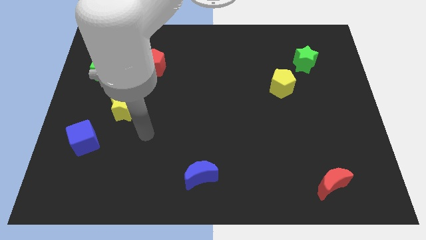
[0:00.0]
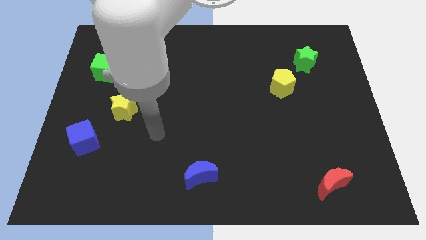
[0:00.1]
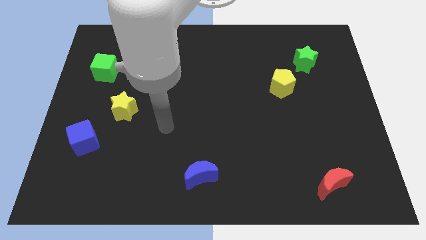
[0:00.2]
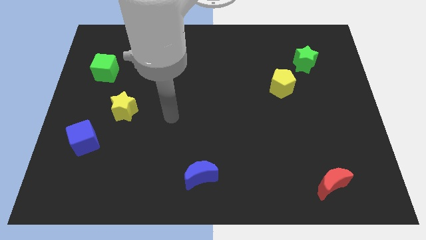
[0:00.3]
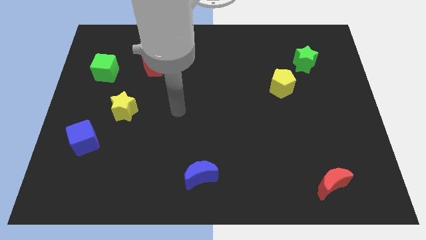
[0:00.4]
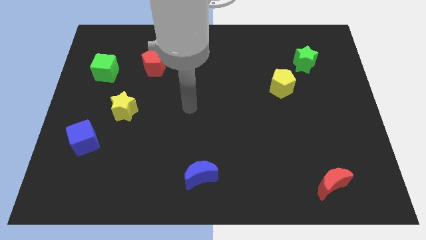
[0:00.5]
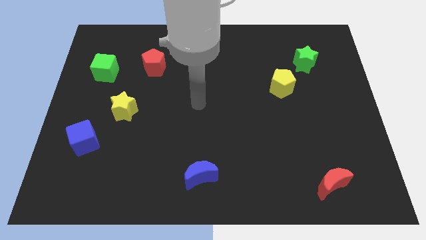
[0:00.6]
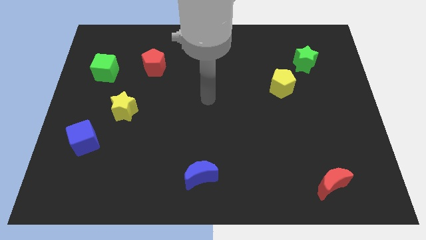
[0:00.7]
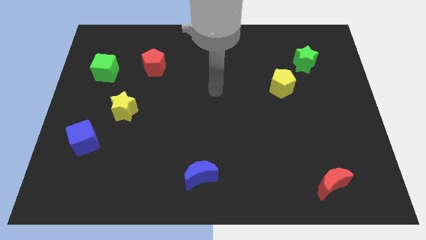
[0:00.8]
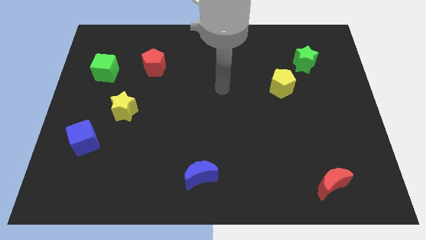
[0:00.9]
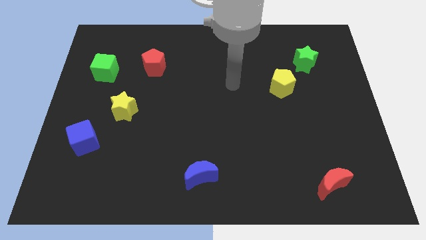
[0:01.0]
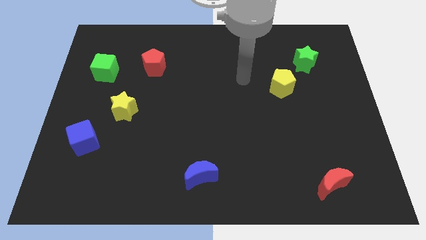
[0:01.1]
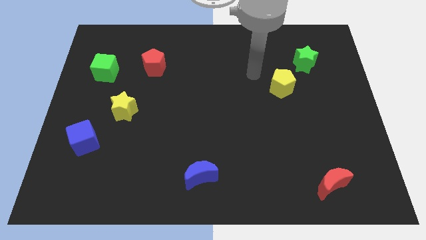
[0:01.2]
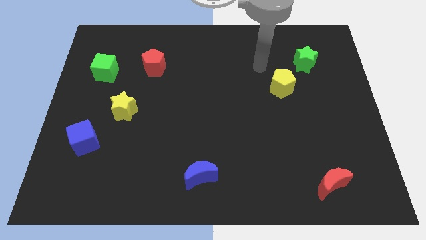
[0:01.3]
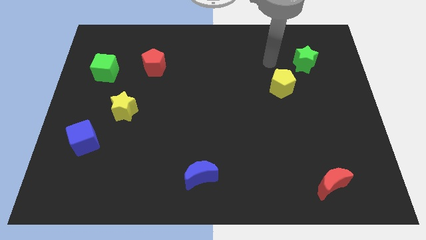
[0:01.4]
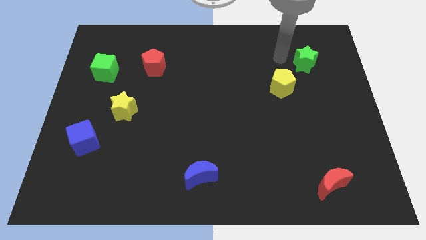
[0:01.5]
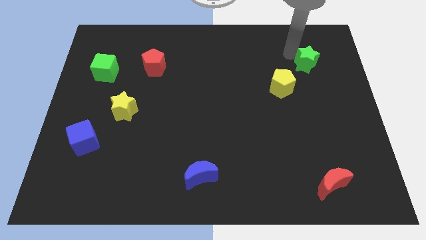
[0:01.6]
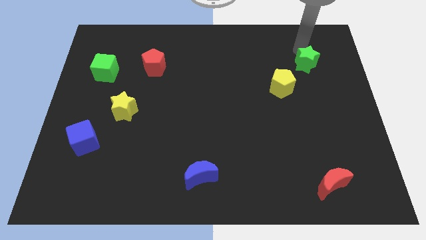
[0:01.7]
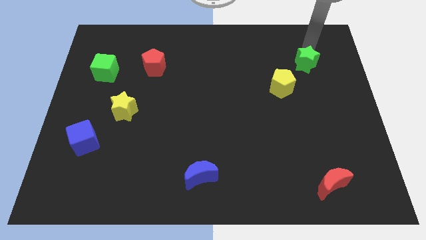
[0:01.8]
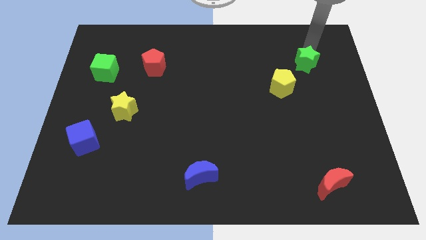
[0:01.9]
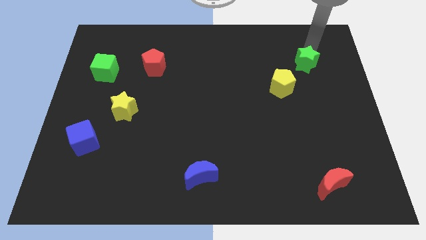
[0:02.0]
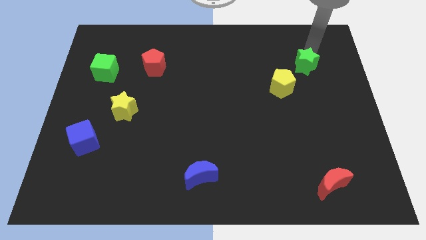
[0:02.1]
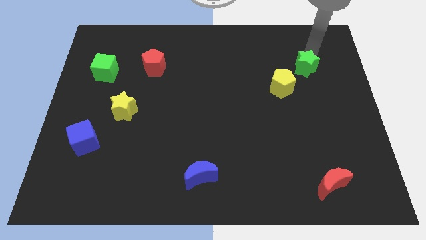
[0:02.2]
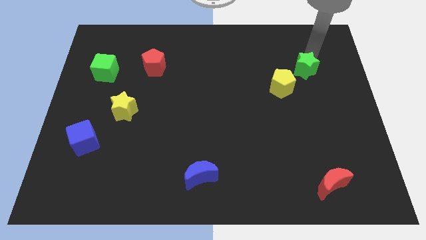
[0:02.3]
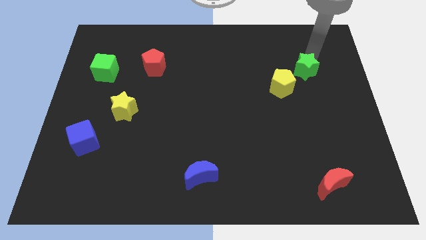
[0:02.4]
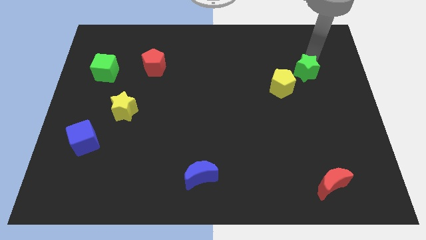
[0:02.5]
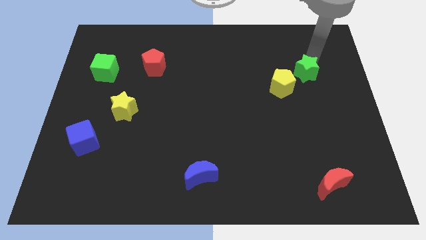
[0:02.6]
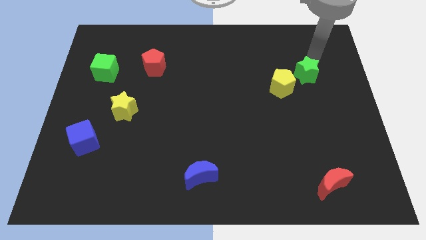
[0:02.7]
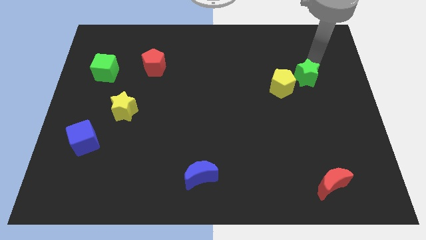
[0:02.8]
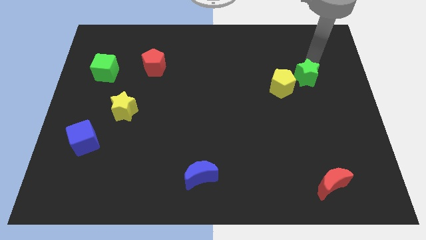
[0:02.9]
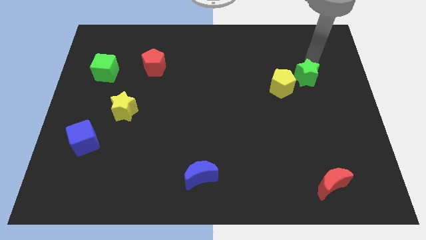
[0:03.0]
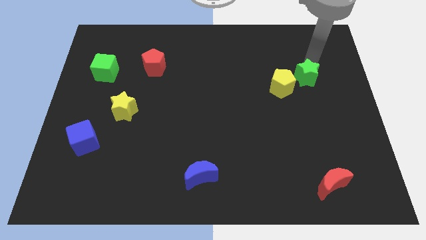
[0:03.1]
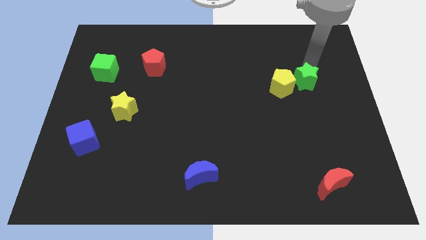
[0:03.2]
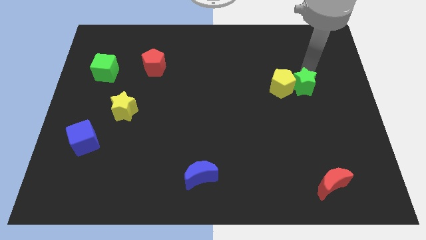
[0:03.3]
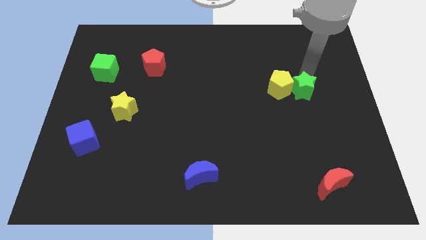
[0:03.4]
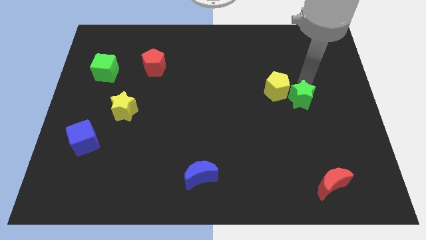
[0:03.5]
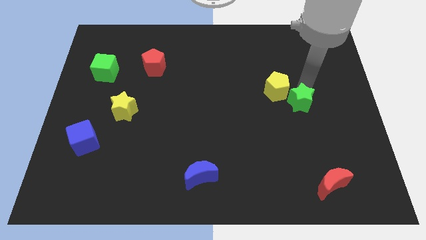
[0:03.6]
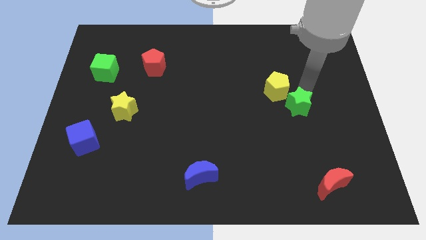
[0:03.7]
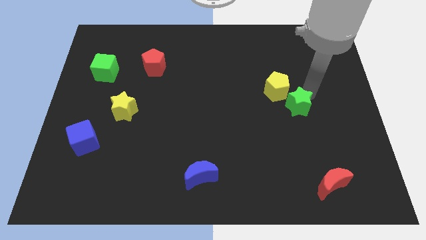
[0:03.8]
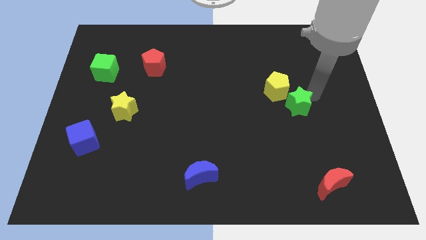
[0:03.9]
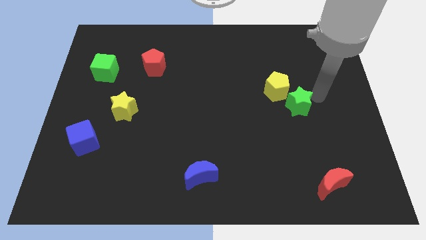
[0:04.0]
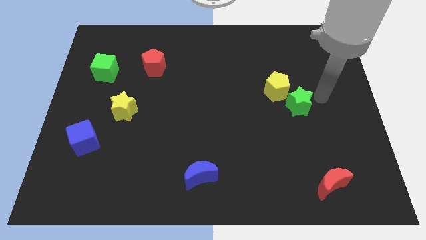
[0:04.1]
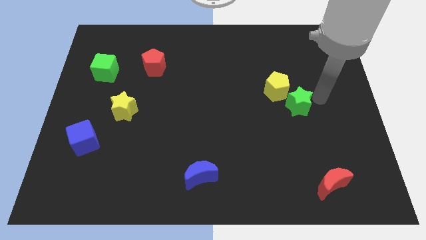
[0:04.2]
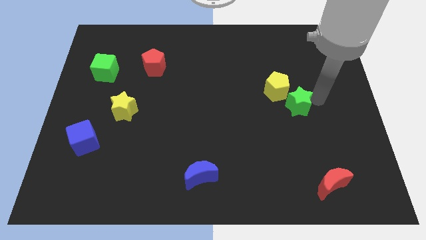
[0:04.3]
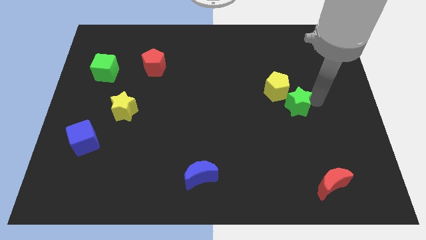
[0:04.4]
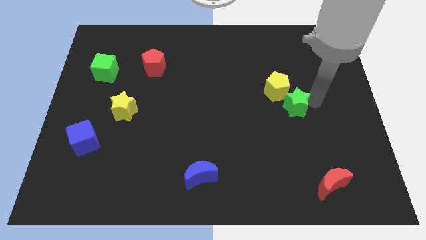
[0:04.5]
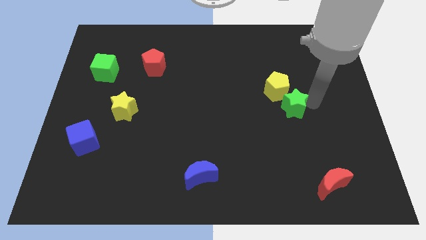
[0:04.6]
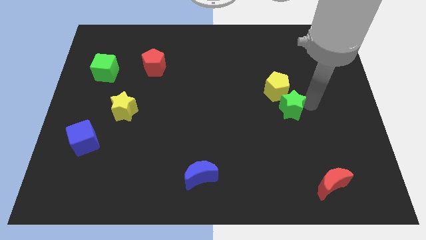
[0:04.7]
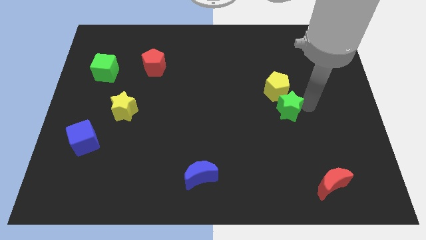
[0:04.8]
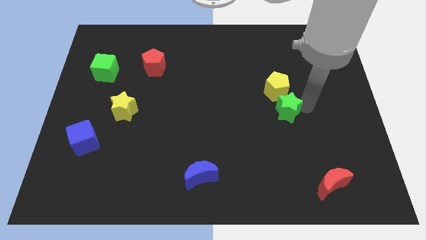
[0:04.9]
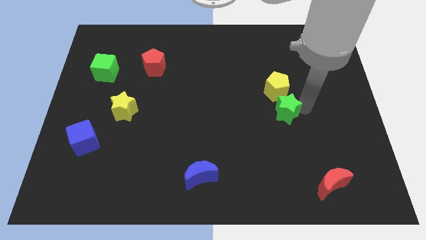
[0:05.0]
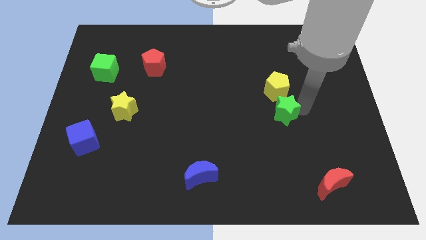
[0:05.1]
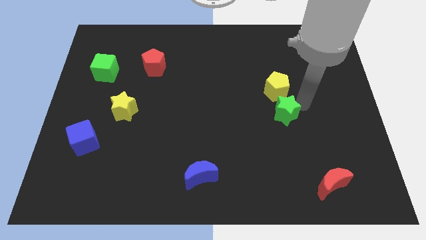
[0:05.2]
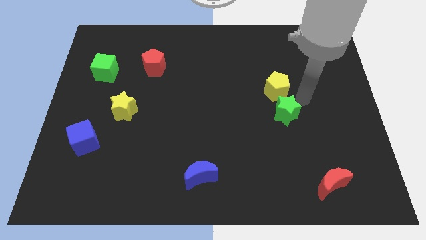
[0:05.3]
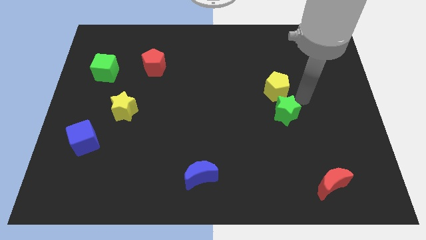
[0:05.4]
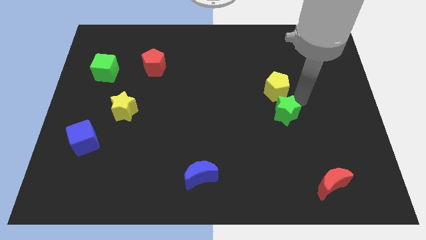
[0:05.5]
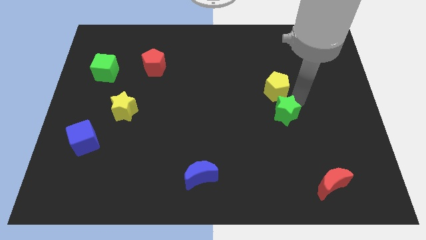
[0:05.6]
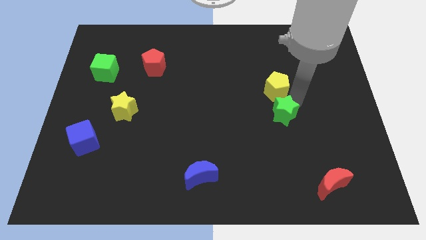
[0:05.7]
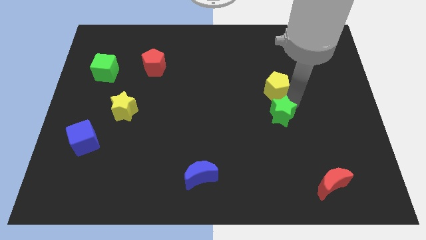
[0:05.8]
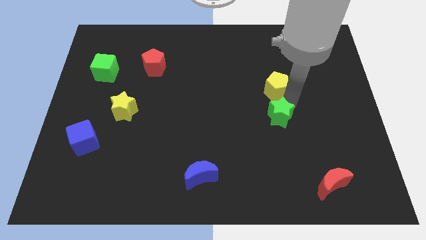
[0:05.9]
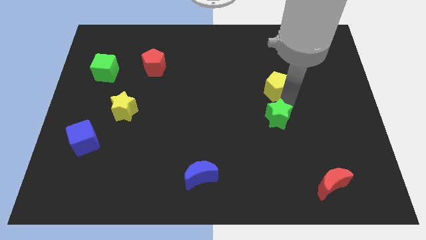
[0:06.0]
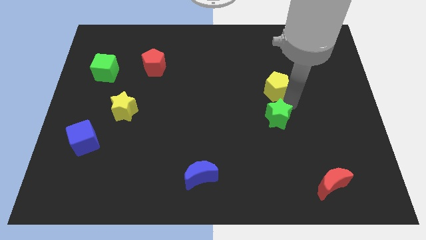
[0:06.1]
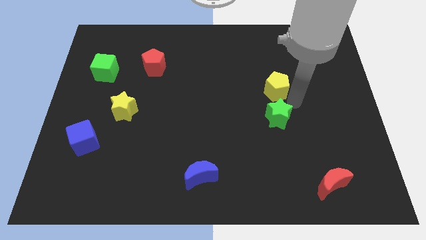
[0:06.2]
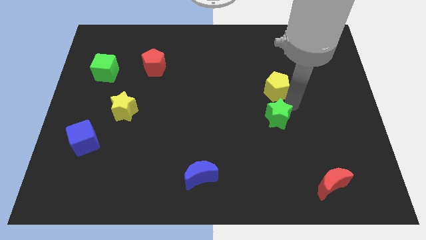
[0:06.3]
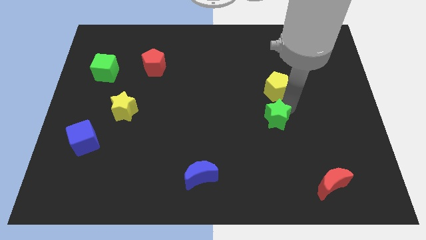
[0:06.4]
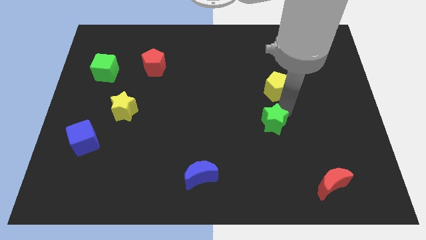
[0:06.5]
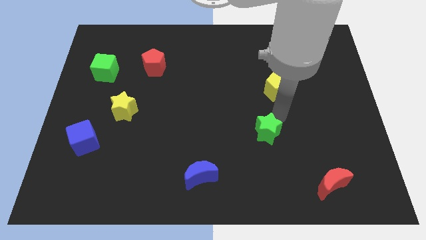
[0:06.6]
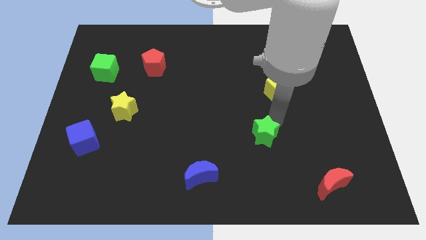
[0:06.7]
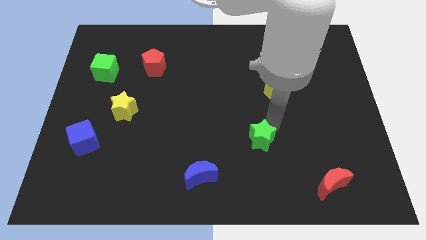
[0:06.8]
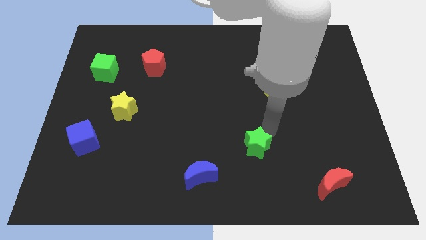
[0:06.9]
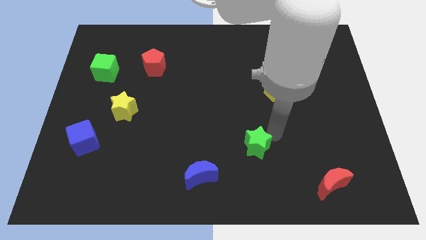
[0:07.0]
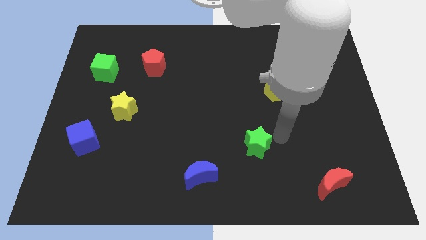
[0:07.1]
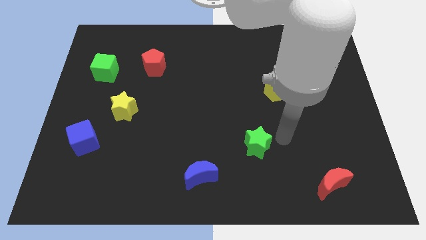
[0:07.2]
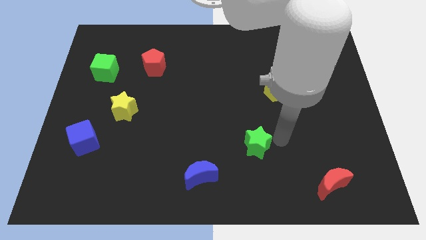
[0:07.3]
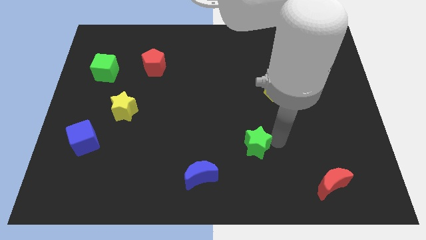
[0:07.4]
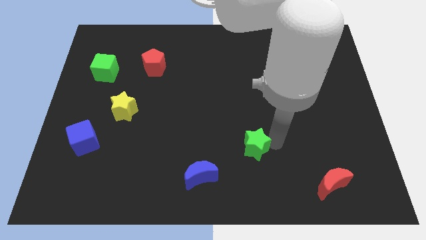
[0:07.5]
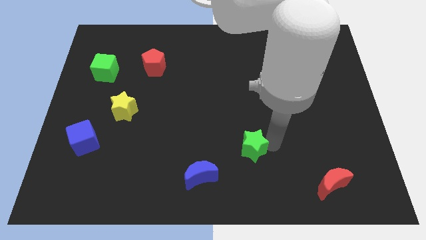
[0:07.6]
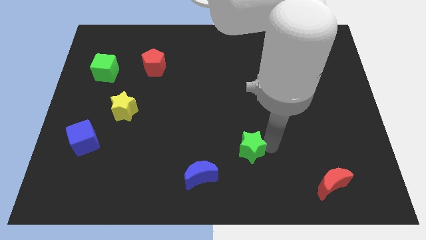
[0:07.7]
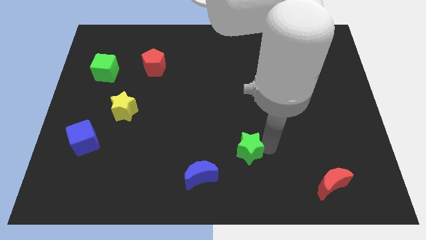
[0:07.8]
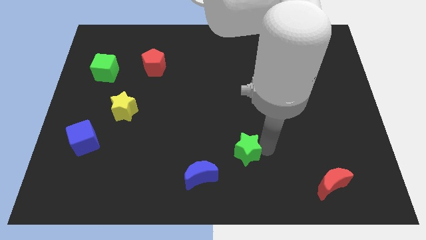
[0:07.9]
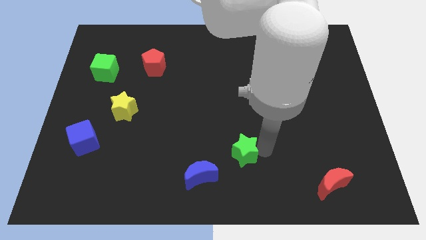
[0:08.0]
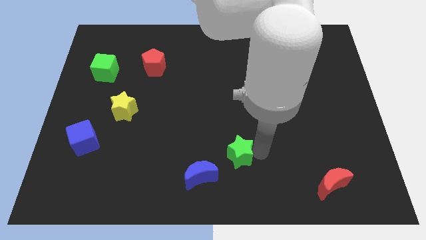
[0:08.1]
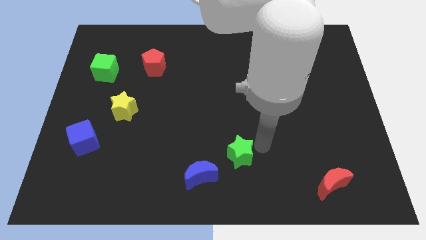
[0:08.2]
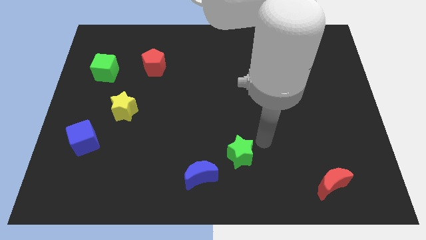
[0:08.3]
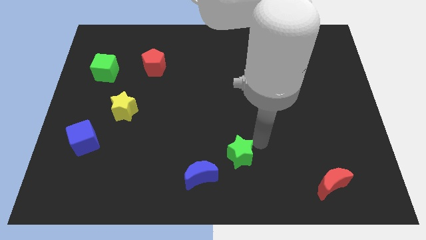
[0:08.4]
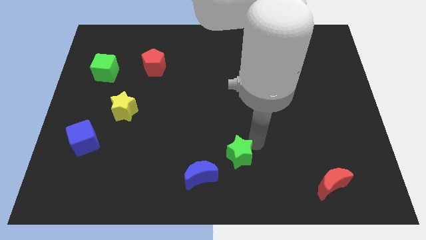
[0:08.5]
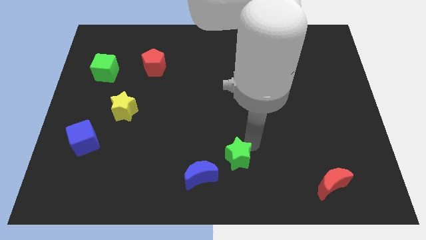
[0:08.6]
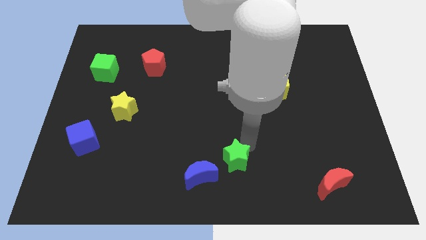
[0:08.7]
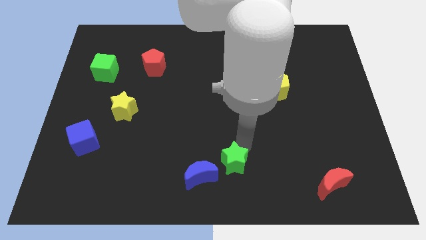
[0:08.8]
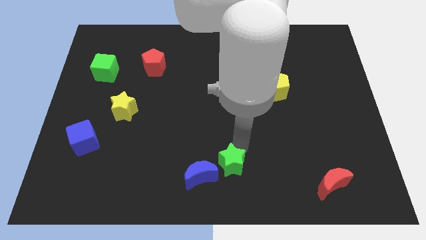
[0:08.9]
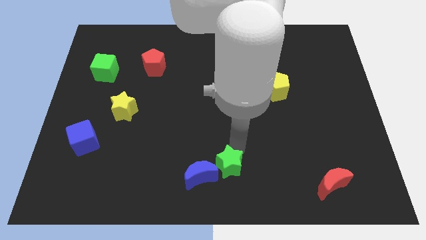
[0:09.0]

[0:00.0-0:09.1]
push the green star to the blue moon
